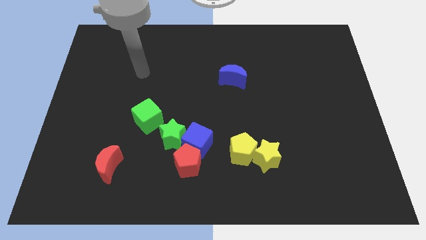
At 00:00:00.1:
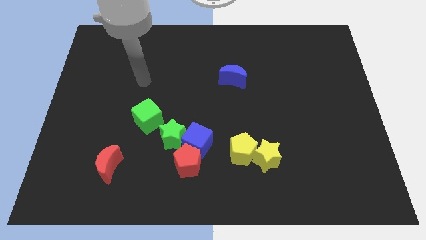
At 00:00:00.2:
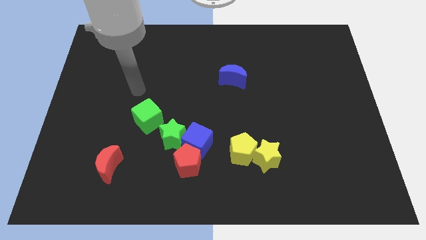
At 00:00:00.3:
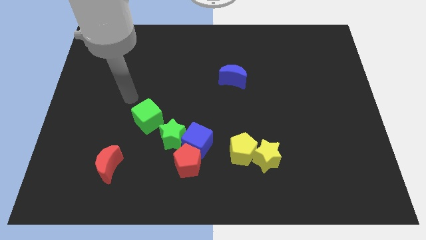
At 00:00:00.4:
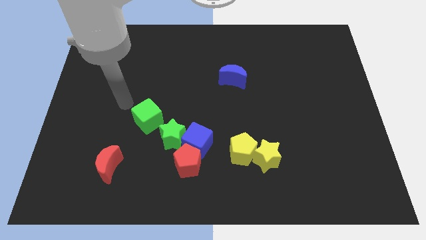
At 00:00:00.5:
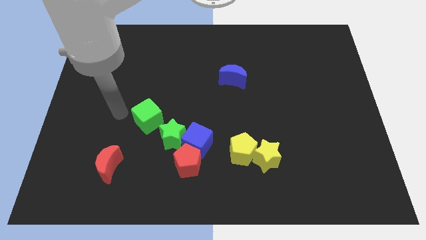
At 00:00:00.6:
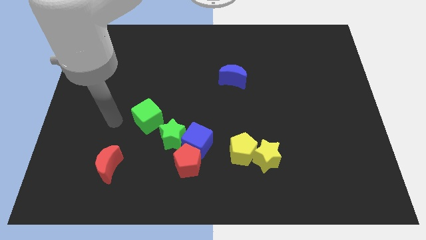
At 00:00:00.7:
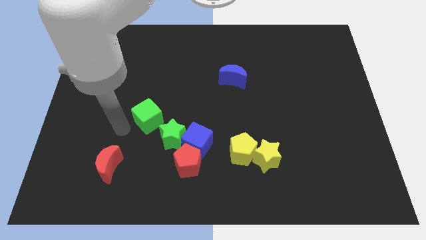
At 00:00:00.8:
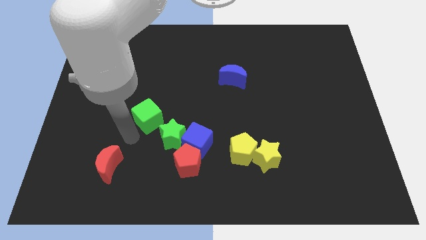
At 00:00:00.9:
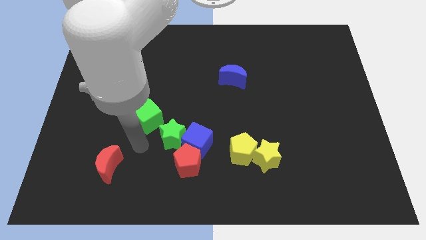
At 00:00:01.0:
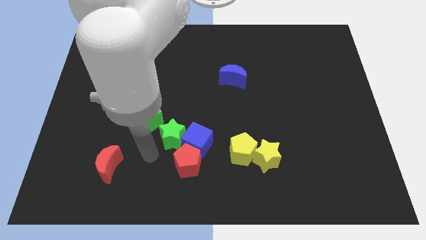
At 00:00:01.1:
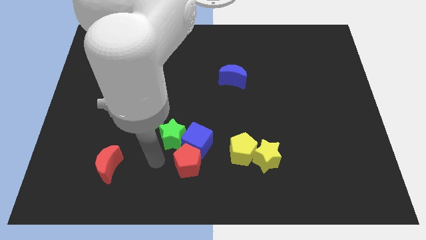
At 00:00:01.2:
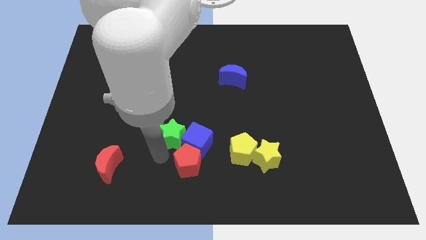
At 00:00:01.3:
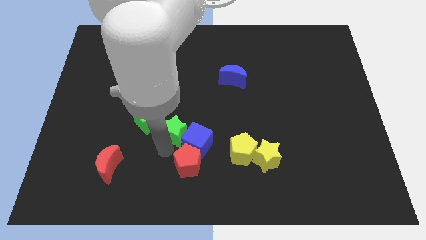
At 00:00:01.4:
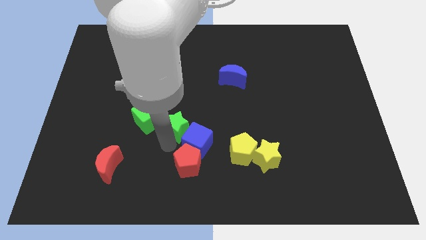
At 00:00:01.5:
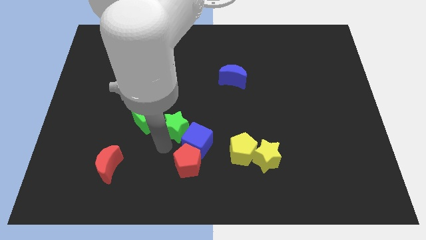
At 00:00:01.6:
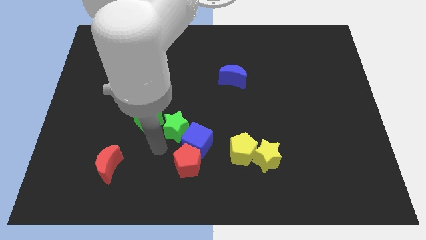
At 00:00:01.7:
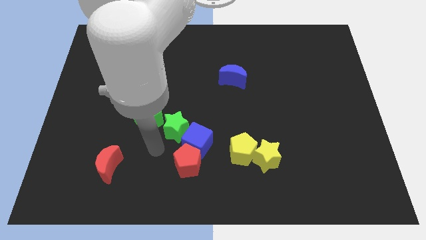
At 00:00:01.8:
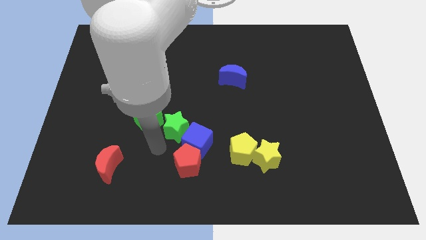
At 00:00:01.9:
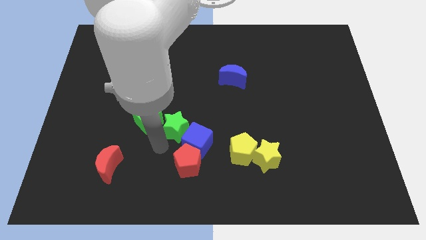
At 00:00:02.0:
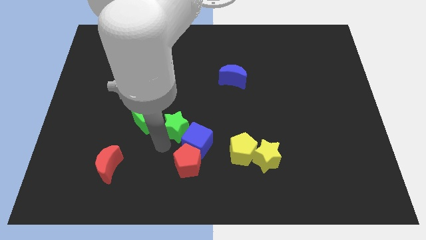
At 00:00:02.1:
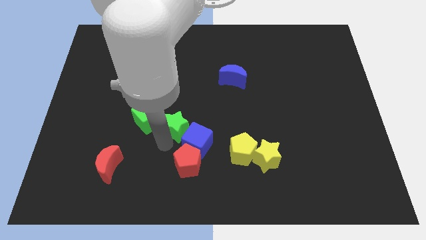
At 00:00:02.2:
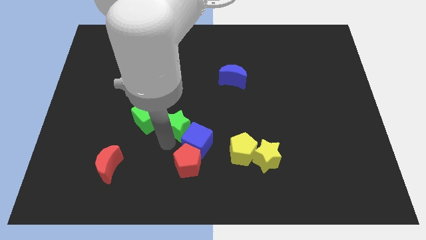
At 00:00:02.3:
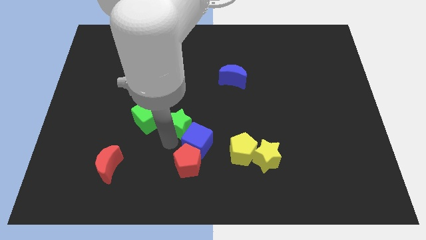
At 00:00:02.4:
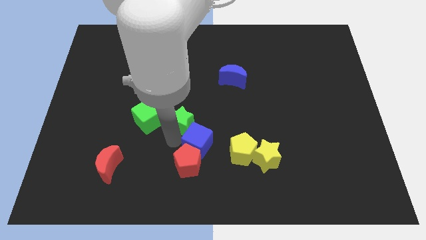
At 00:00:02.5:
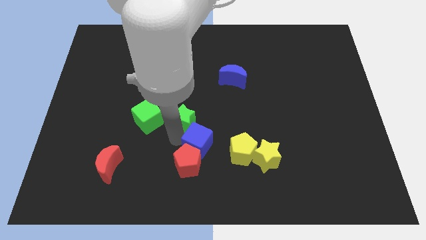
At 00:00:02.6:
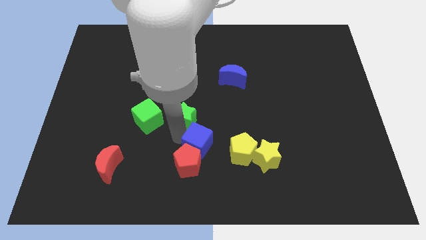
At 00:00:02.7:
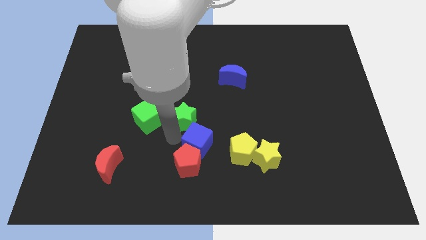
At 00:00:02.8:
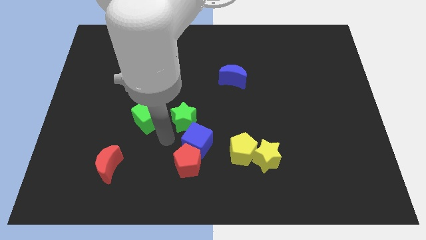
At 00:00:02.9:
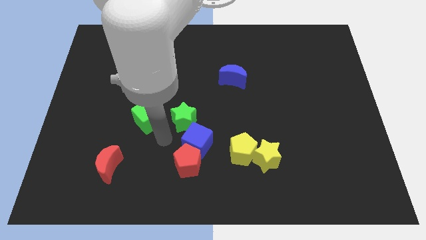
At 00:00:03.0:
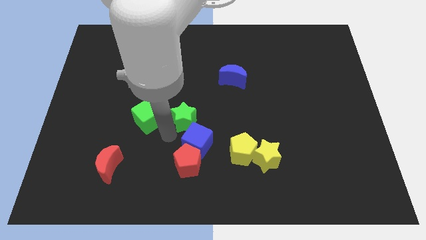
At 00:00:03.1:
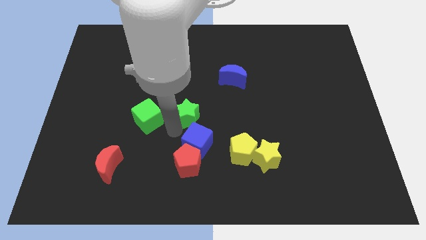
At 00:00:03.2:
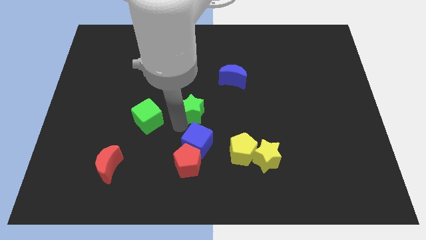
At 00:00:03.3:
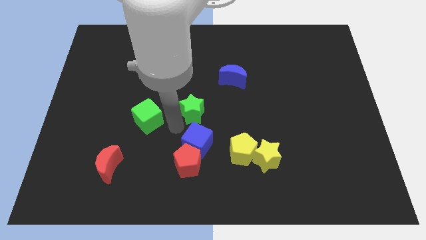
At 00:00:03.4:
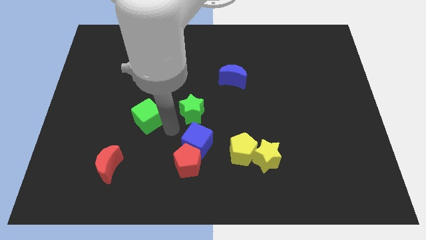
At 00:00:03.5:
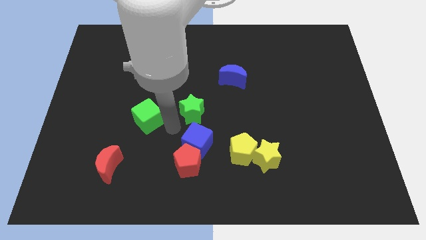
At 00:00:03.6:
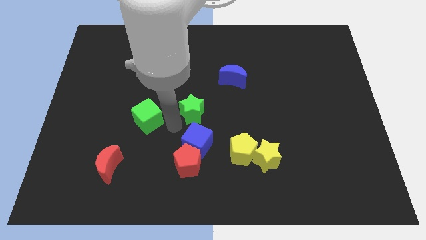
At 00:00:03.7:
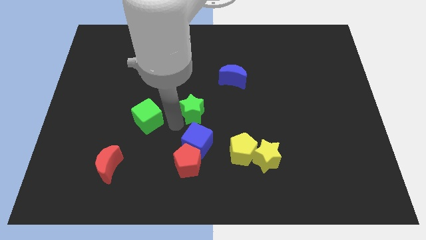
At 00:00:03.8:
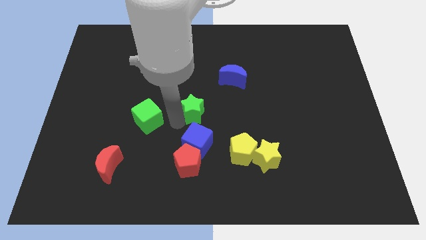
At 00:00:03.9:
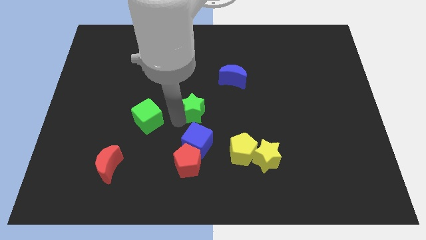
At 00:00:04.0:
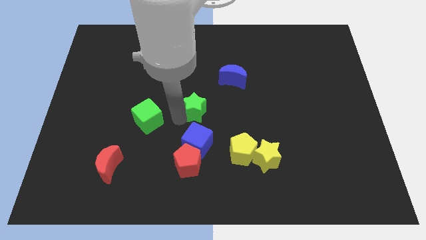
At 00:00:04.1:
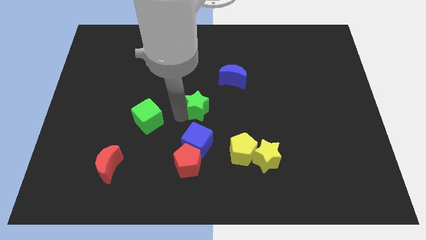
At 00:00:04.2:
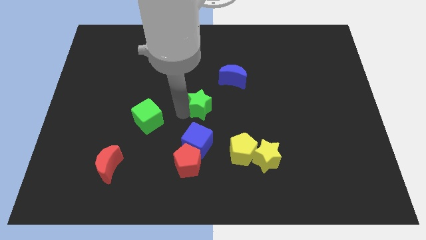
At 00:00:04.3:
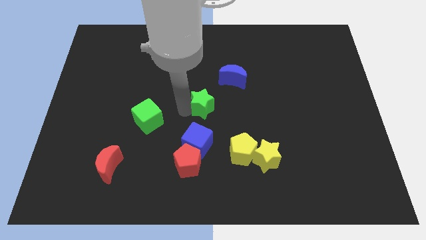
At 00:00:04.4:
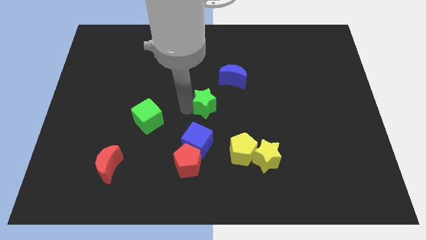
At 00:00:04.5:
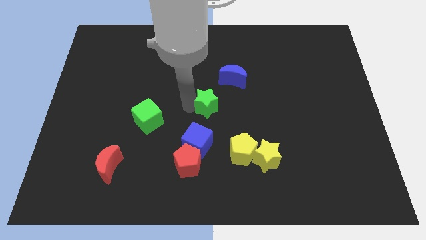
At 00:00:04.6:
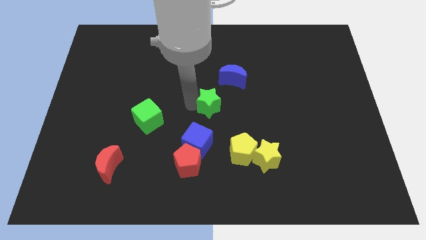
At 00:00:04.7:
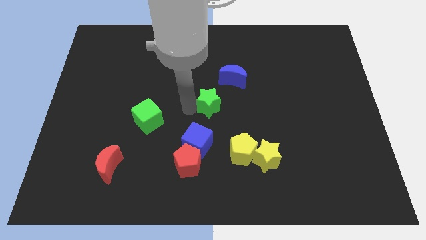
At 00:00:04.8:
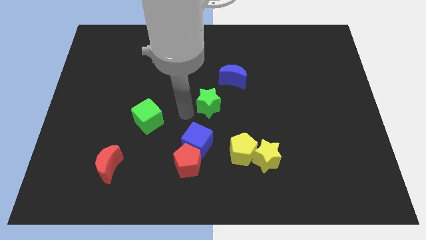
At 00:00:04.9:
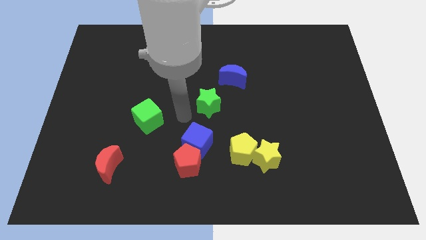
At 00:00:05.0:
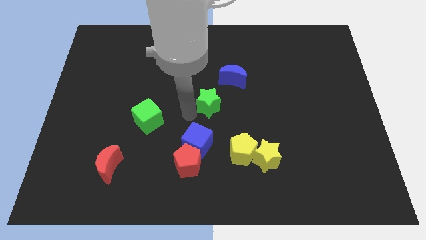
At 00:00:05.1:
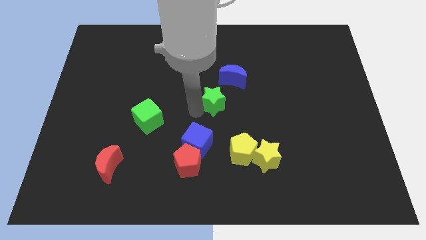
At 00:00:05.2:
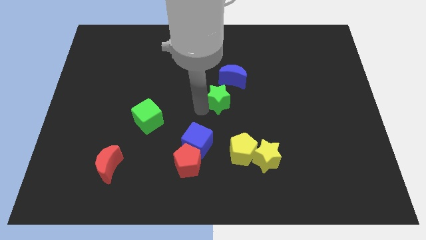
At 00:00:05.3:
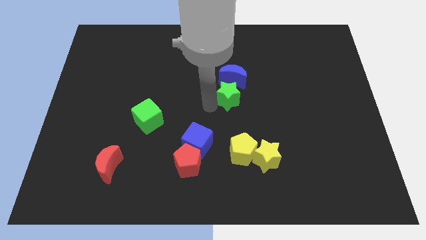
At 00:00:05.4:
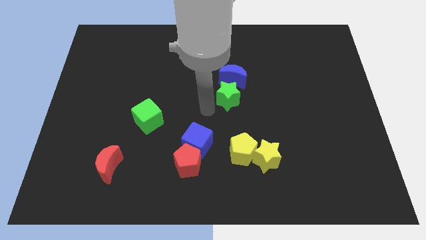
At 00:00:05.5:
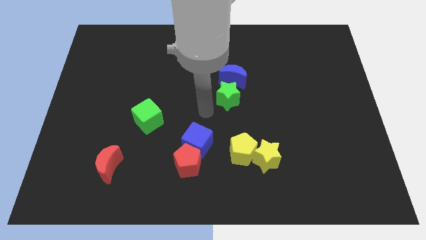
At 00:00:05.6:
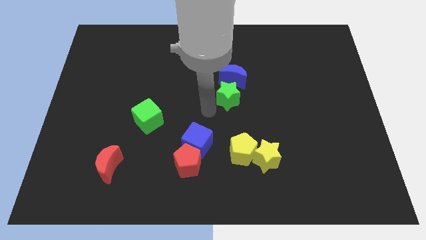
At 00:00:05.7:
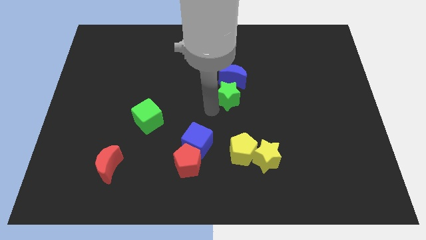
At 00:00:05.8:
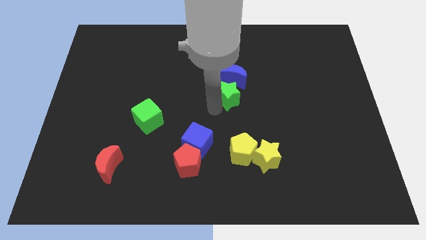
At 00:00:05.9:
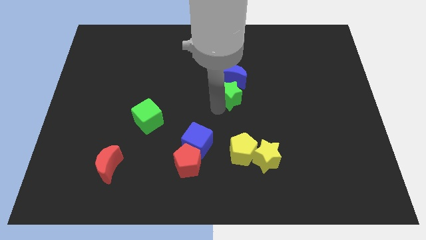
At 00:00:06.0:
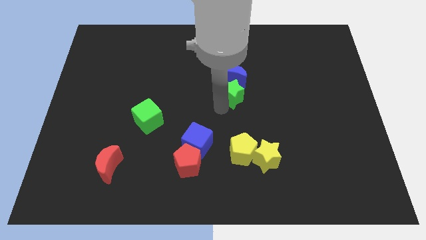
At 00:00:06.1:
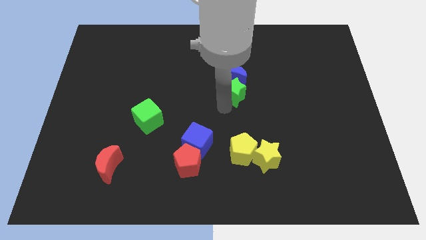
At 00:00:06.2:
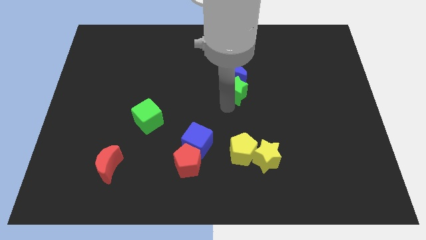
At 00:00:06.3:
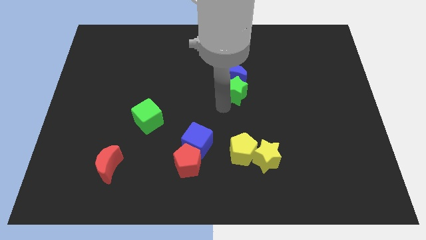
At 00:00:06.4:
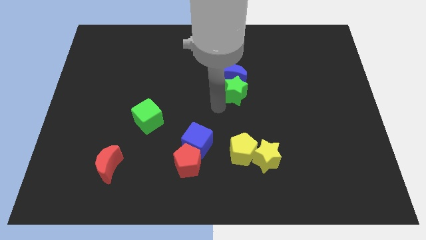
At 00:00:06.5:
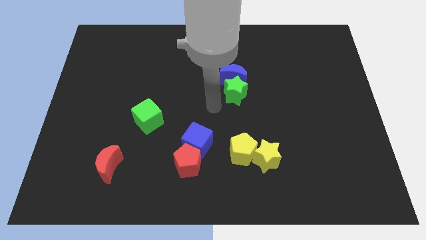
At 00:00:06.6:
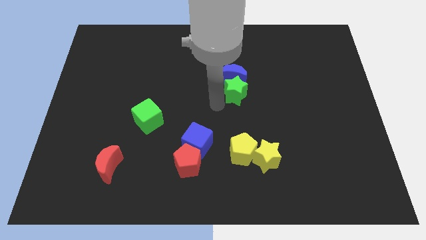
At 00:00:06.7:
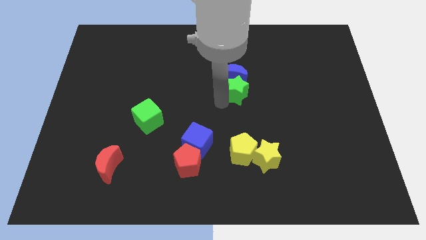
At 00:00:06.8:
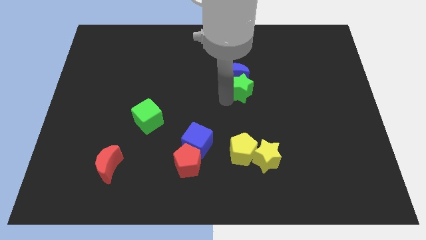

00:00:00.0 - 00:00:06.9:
slide the green star diagonally up and right

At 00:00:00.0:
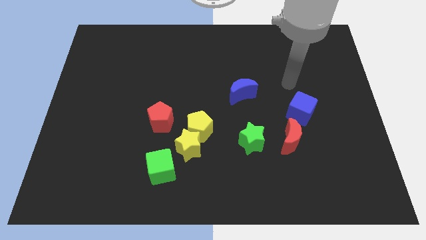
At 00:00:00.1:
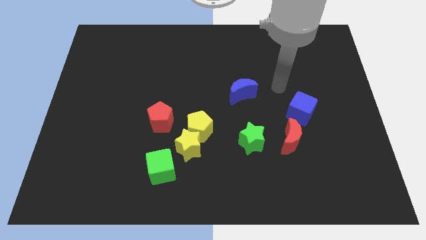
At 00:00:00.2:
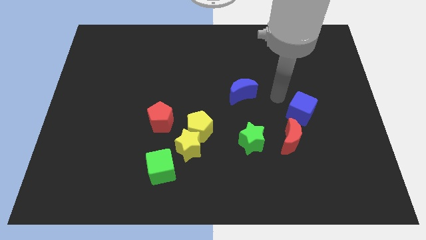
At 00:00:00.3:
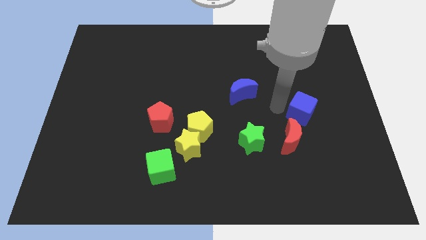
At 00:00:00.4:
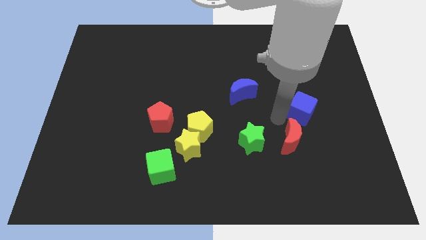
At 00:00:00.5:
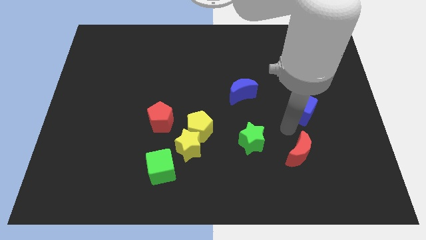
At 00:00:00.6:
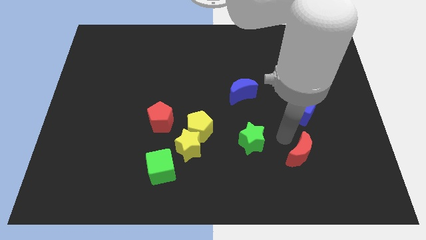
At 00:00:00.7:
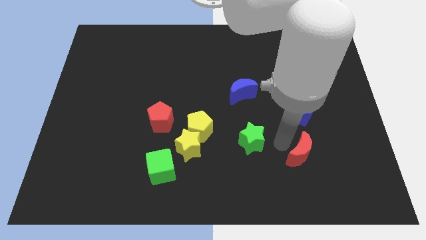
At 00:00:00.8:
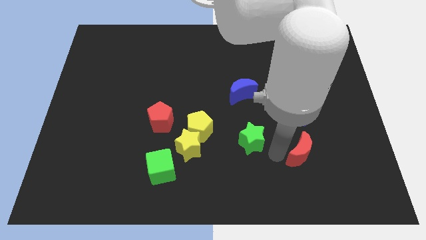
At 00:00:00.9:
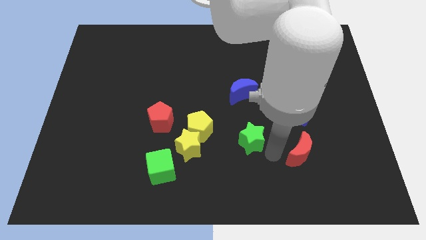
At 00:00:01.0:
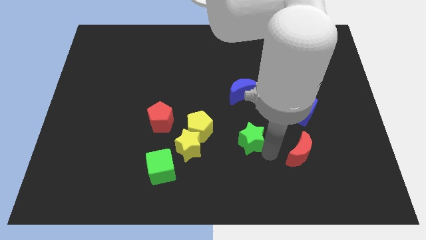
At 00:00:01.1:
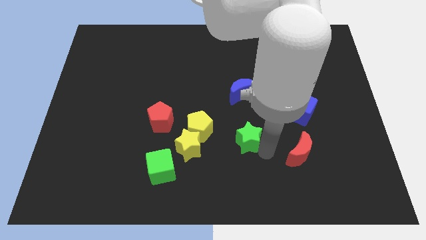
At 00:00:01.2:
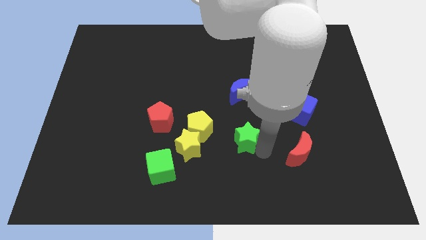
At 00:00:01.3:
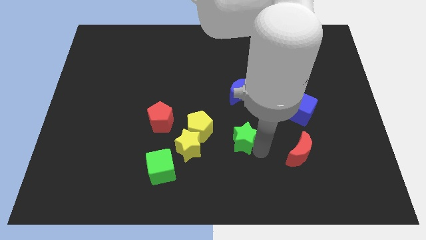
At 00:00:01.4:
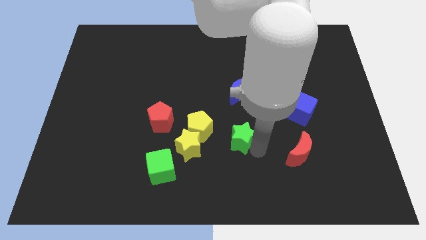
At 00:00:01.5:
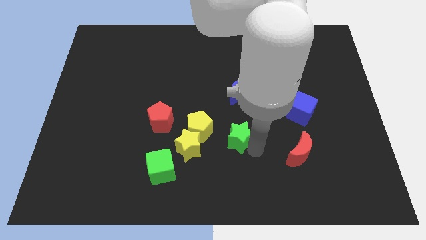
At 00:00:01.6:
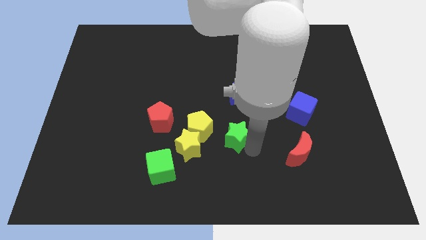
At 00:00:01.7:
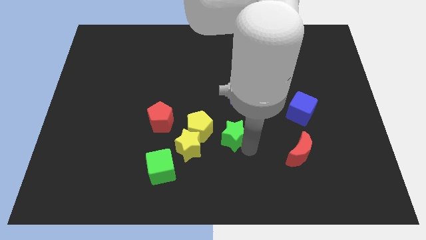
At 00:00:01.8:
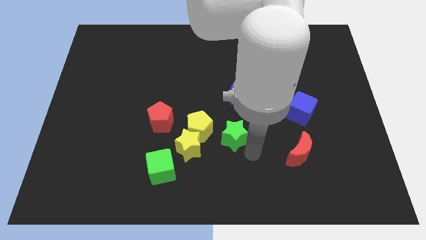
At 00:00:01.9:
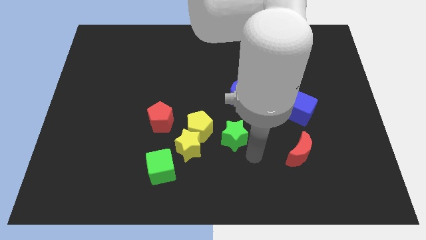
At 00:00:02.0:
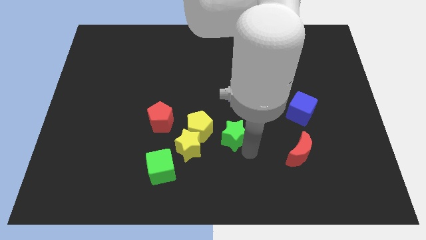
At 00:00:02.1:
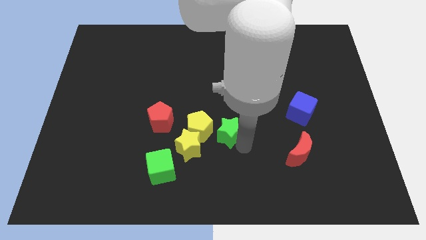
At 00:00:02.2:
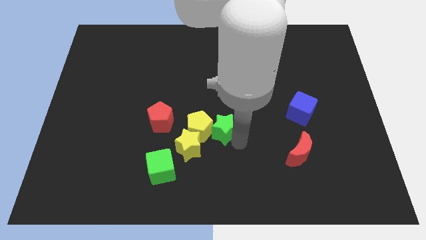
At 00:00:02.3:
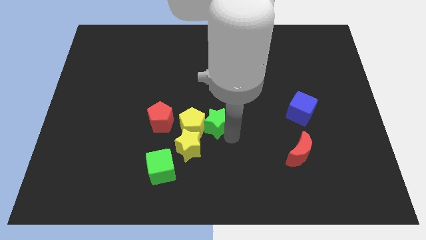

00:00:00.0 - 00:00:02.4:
slide the green star to the left a little bit
